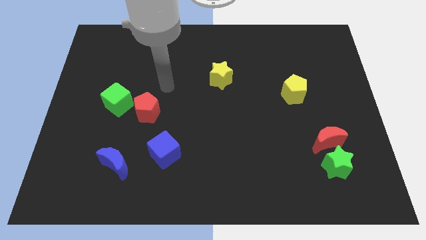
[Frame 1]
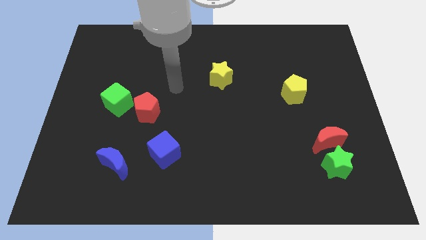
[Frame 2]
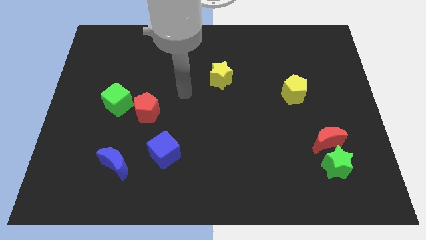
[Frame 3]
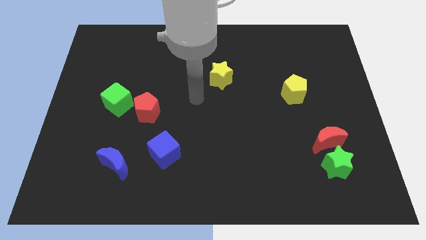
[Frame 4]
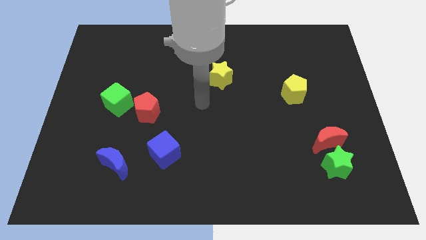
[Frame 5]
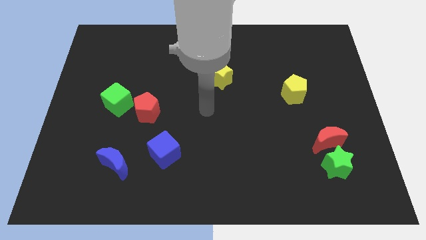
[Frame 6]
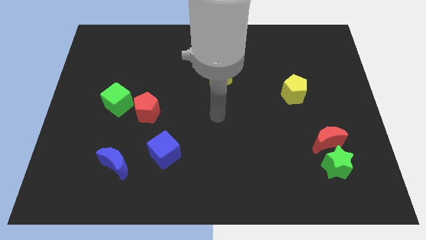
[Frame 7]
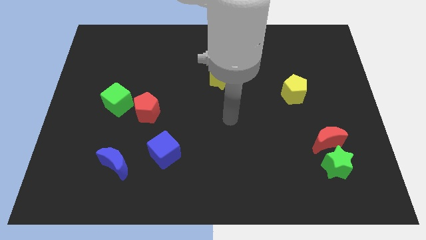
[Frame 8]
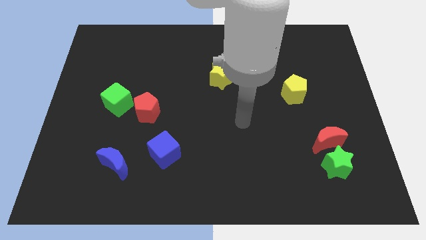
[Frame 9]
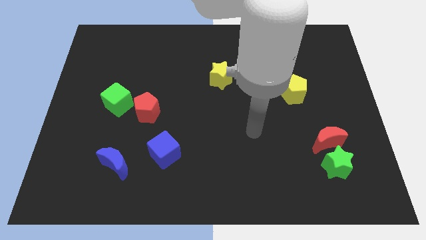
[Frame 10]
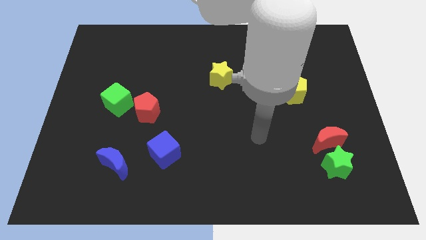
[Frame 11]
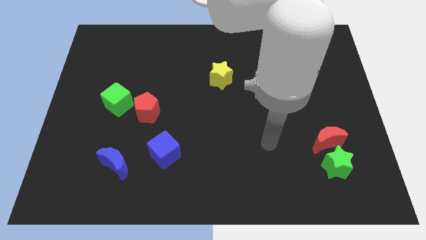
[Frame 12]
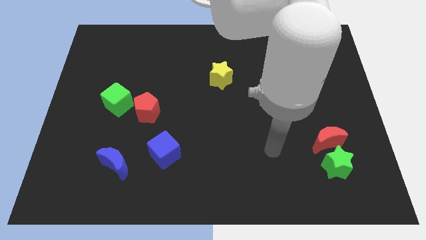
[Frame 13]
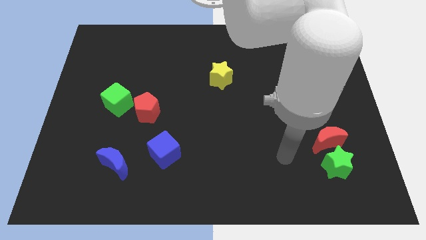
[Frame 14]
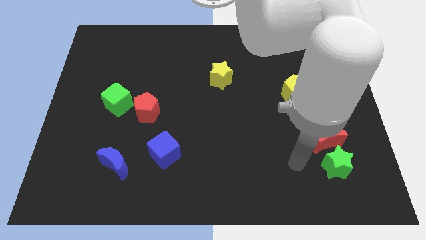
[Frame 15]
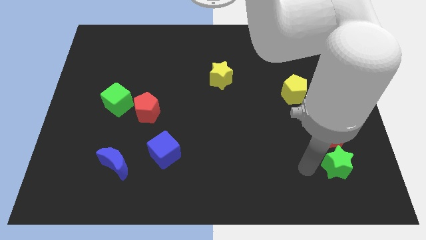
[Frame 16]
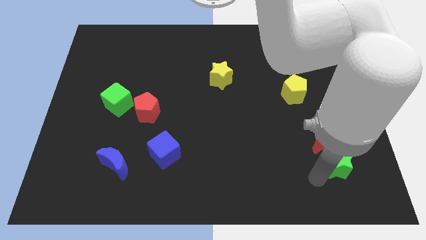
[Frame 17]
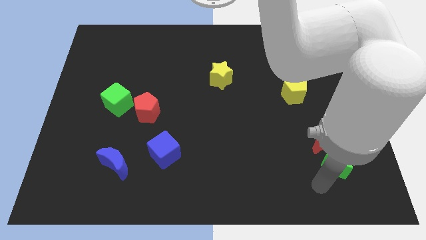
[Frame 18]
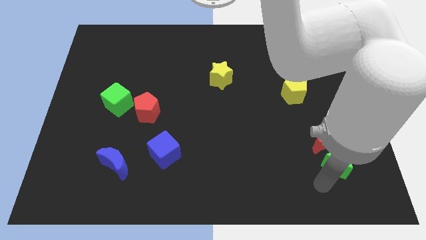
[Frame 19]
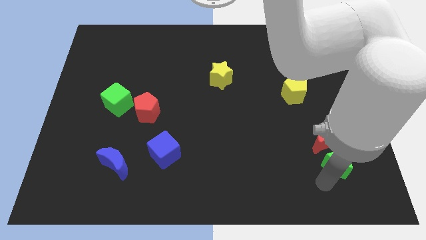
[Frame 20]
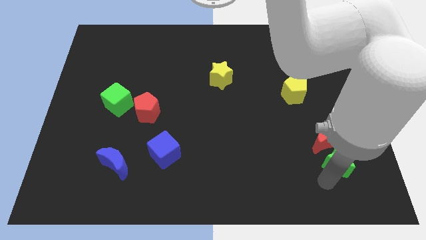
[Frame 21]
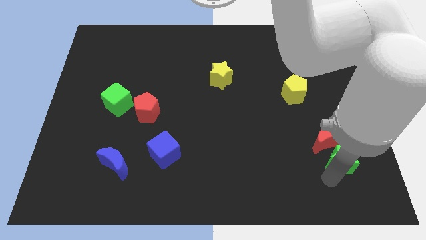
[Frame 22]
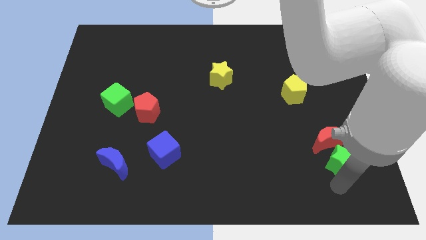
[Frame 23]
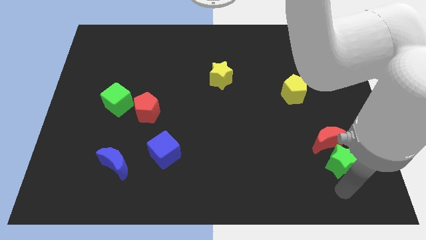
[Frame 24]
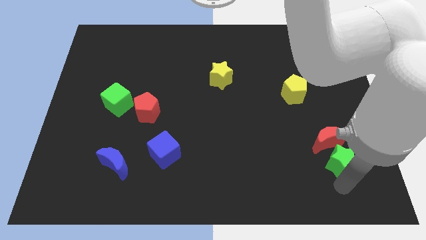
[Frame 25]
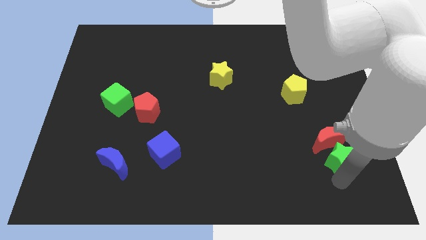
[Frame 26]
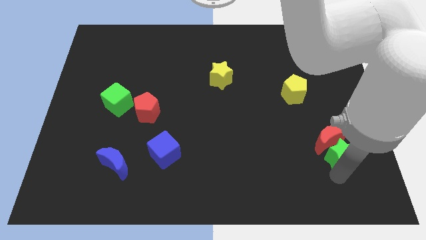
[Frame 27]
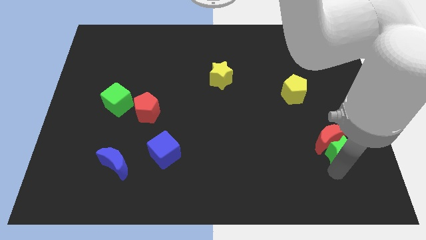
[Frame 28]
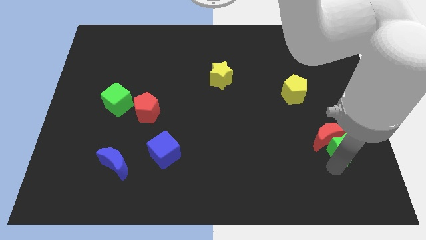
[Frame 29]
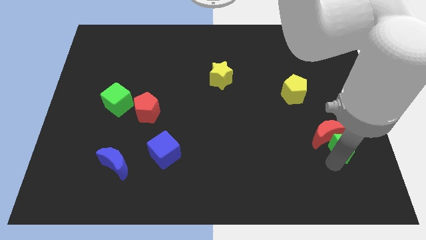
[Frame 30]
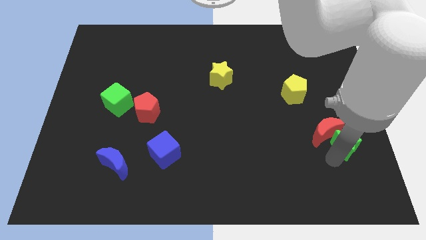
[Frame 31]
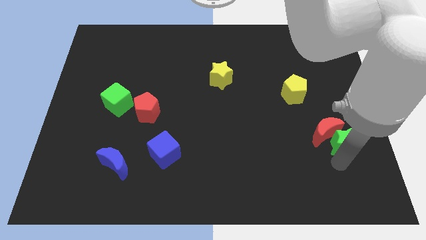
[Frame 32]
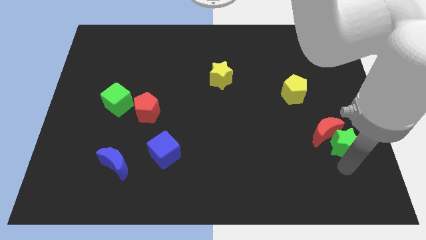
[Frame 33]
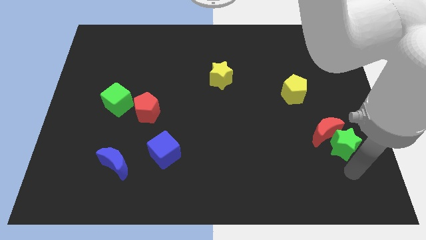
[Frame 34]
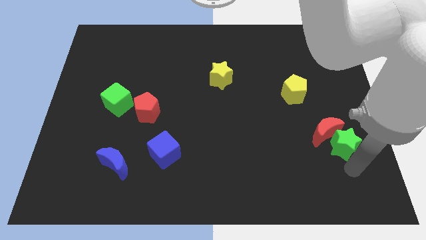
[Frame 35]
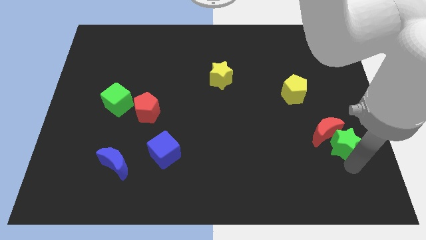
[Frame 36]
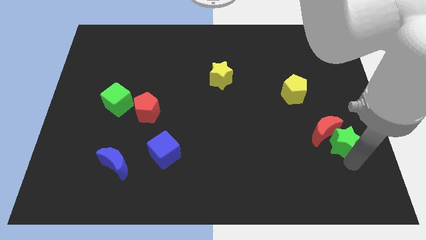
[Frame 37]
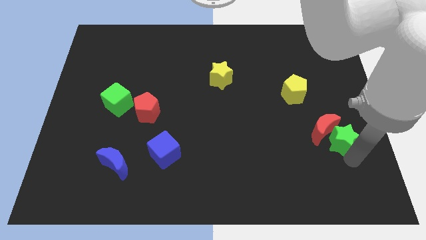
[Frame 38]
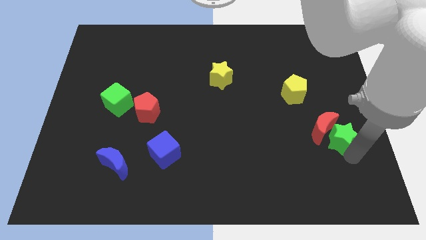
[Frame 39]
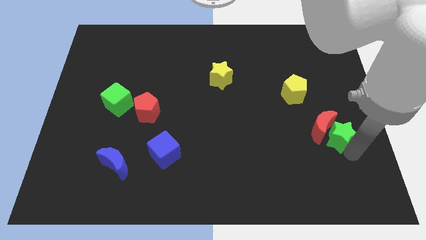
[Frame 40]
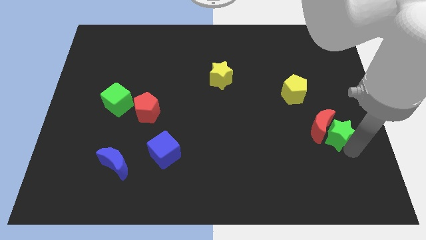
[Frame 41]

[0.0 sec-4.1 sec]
push the green star a little up

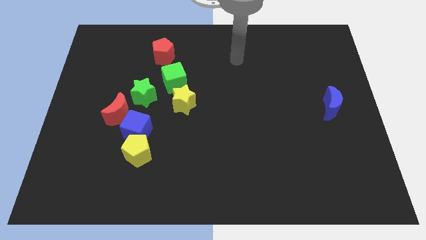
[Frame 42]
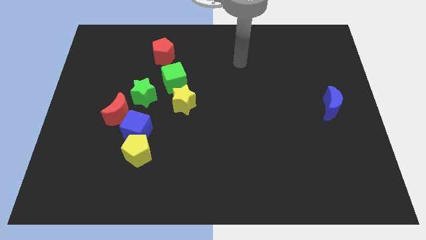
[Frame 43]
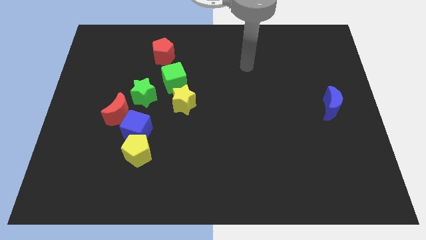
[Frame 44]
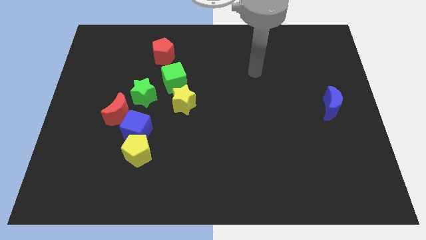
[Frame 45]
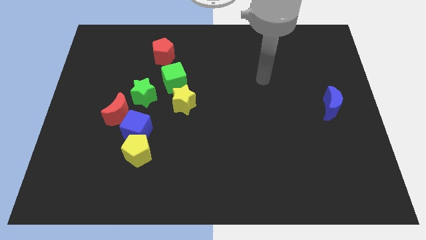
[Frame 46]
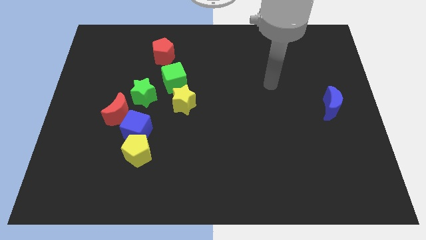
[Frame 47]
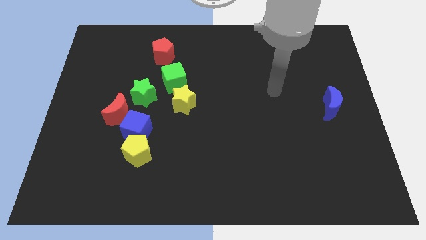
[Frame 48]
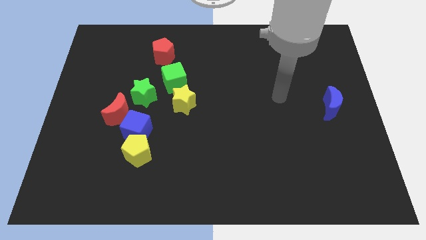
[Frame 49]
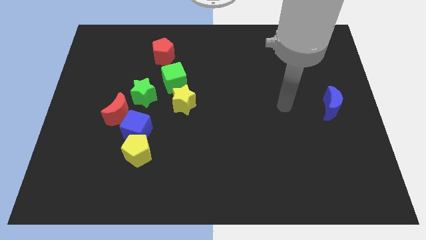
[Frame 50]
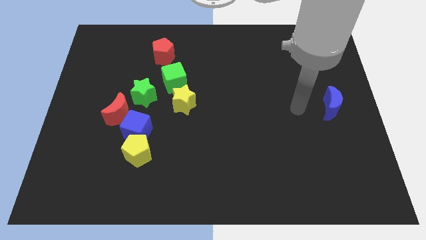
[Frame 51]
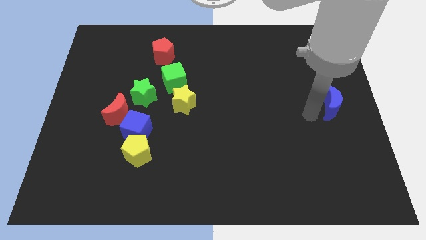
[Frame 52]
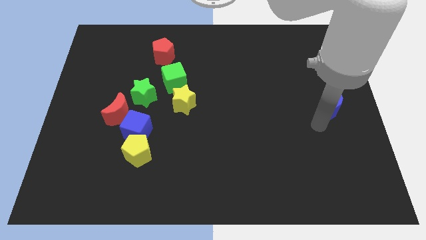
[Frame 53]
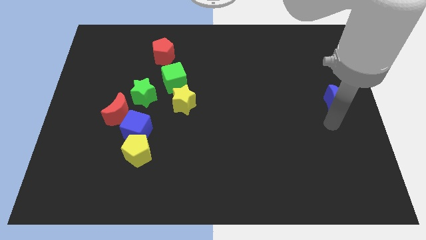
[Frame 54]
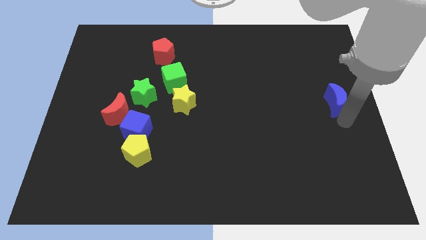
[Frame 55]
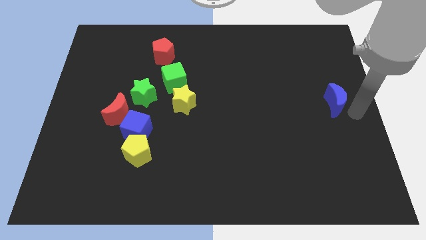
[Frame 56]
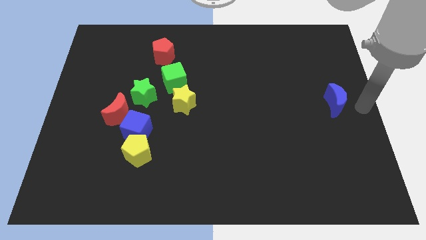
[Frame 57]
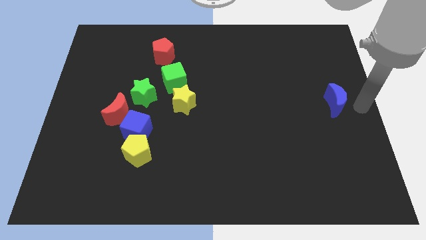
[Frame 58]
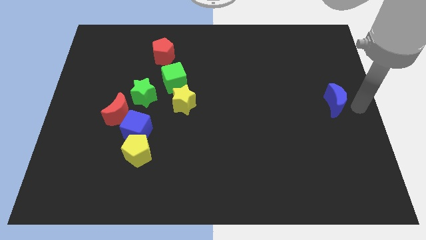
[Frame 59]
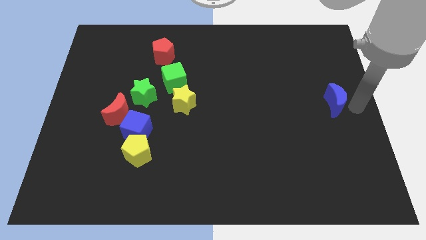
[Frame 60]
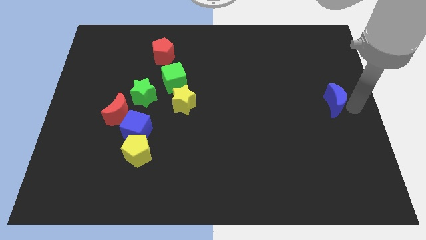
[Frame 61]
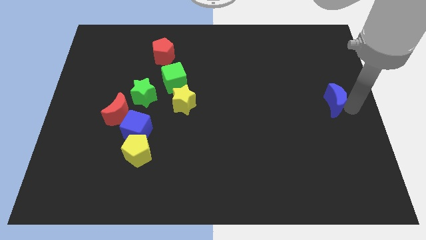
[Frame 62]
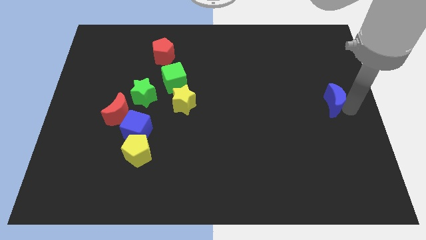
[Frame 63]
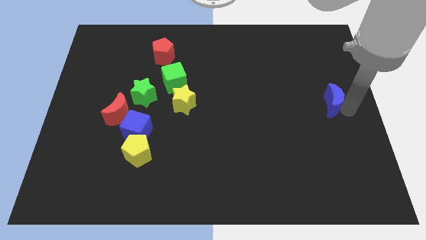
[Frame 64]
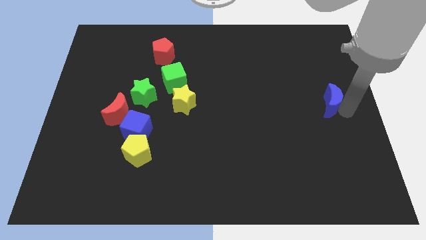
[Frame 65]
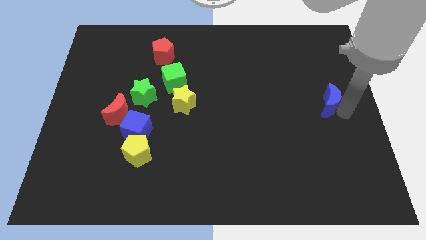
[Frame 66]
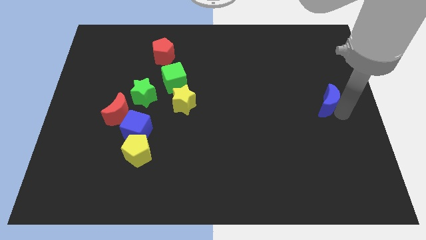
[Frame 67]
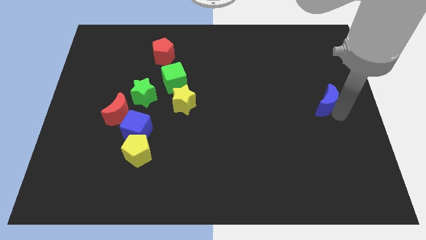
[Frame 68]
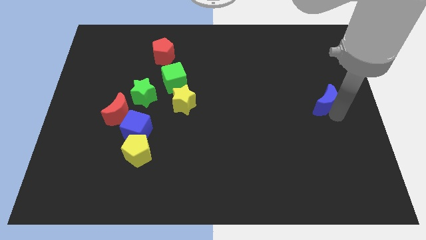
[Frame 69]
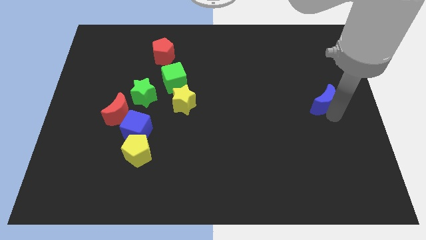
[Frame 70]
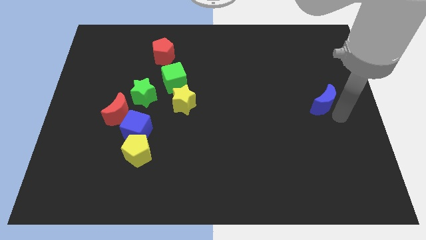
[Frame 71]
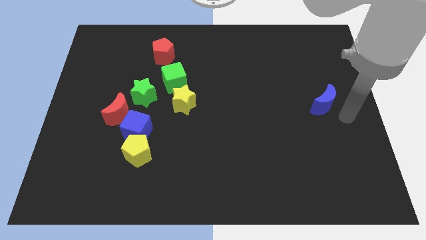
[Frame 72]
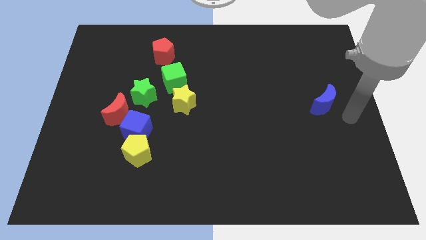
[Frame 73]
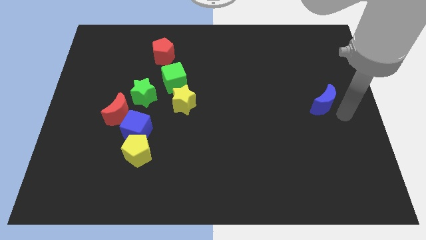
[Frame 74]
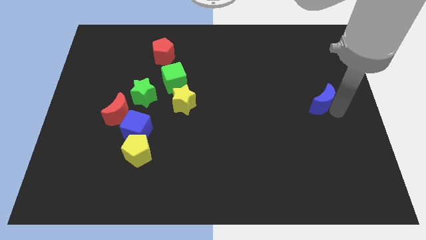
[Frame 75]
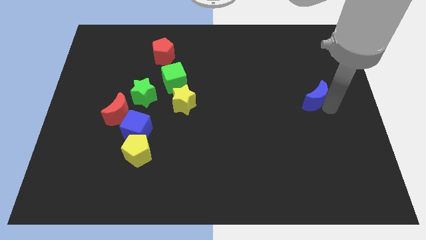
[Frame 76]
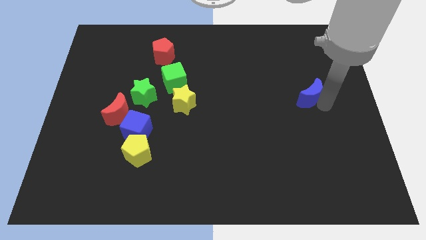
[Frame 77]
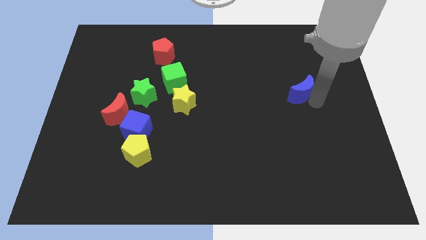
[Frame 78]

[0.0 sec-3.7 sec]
push the blue moon diagonally up and left a bit

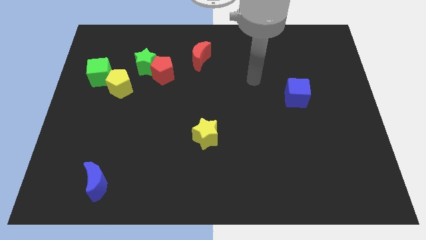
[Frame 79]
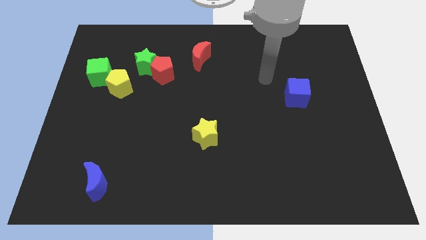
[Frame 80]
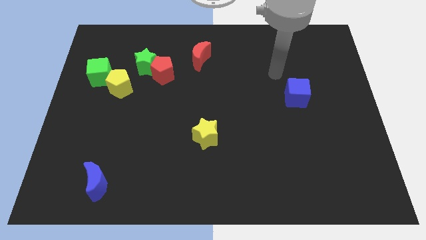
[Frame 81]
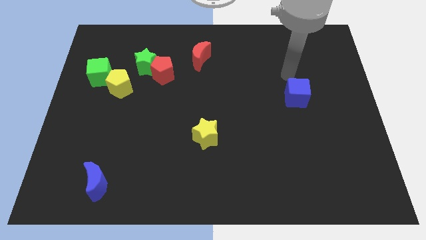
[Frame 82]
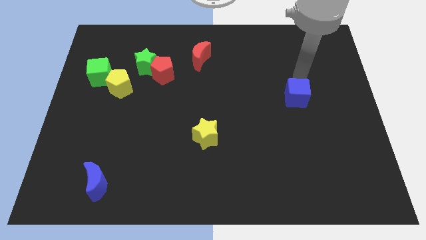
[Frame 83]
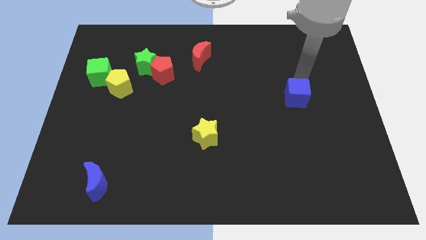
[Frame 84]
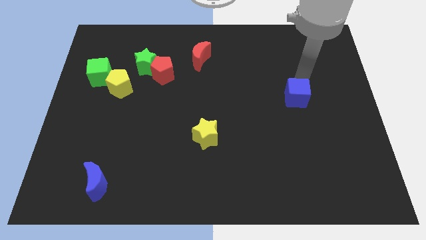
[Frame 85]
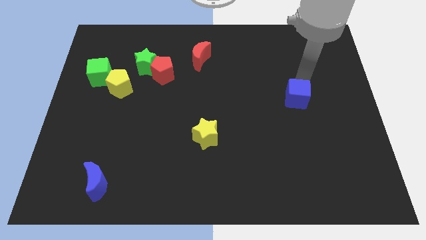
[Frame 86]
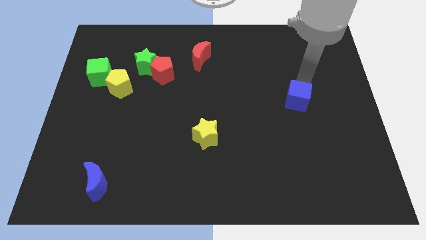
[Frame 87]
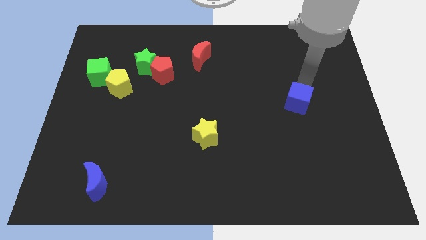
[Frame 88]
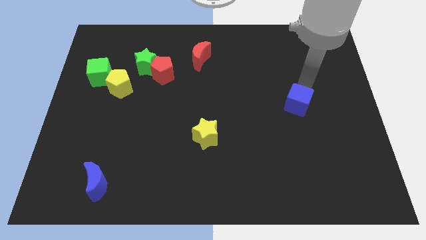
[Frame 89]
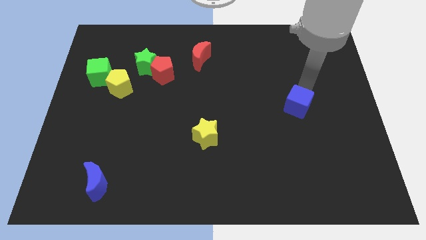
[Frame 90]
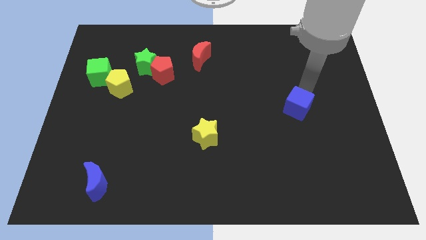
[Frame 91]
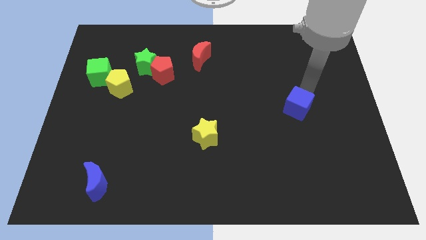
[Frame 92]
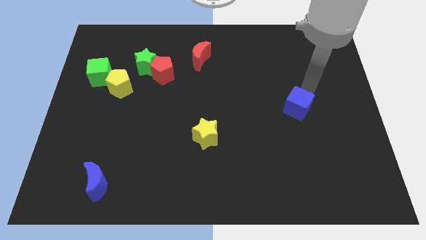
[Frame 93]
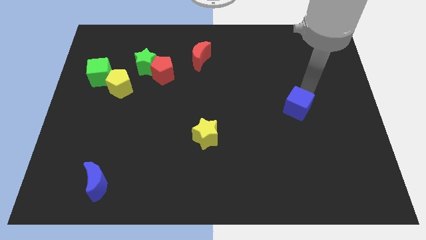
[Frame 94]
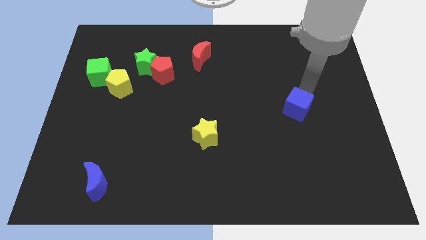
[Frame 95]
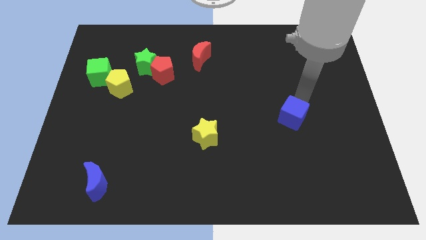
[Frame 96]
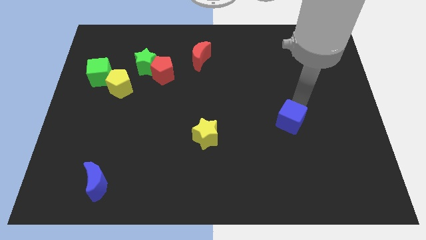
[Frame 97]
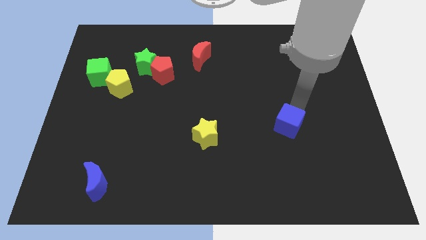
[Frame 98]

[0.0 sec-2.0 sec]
move the blue cube down and left diagonally somewhat
